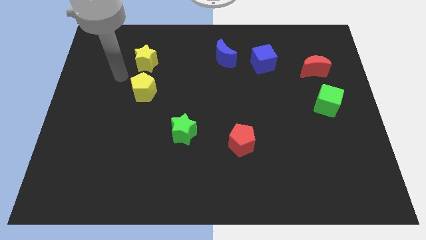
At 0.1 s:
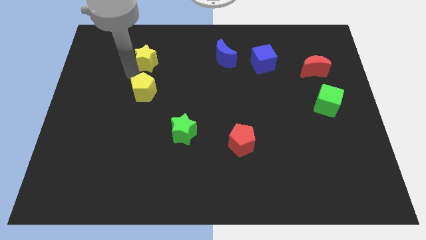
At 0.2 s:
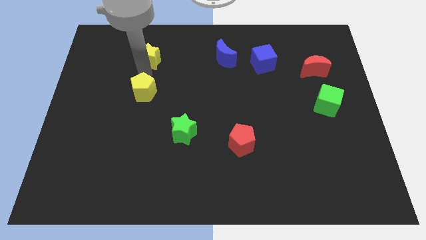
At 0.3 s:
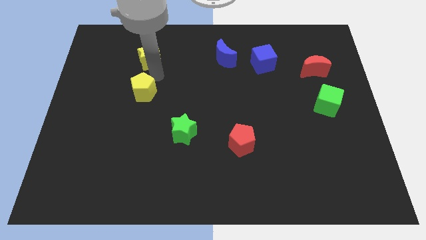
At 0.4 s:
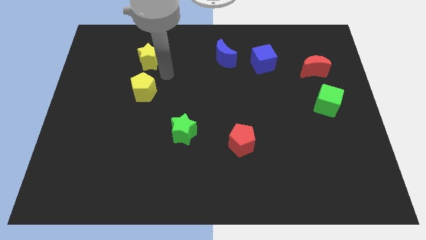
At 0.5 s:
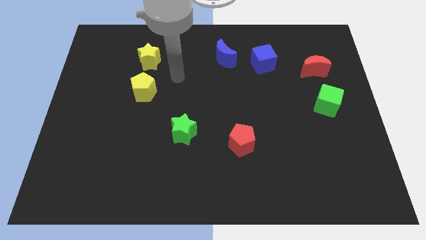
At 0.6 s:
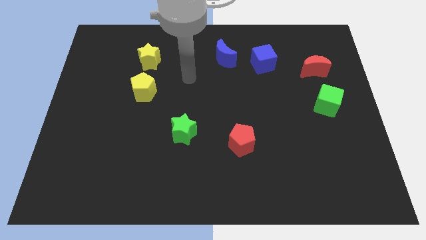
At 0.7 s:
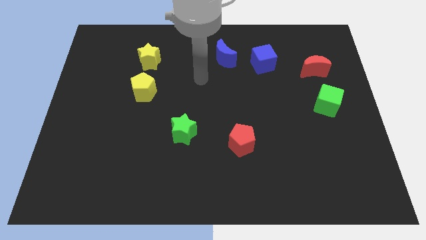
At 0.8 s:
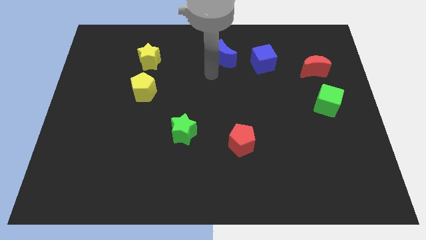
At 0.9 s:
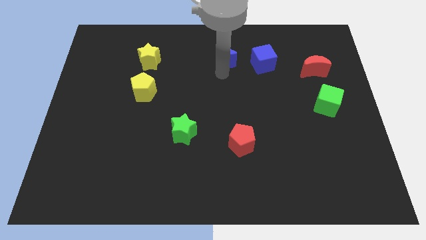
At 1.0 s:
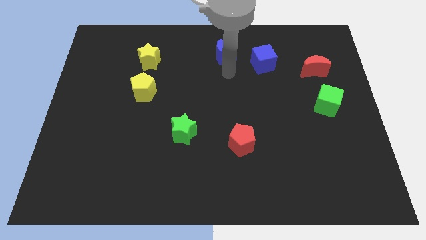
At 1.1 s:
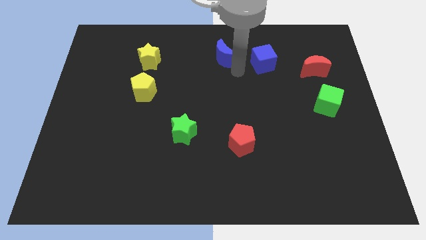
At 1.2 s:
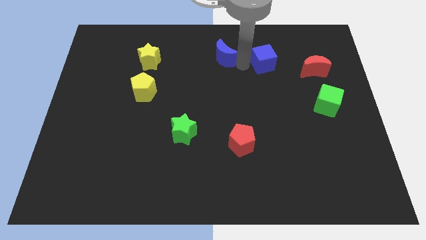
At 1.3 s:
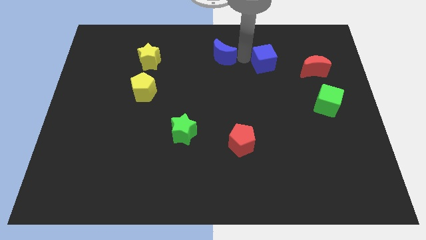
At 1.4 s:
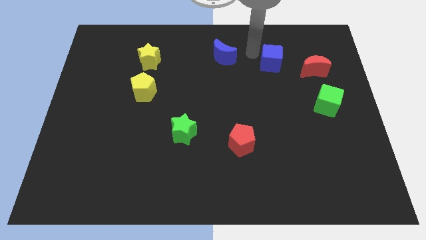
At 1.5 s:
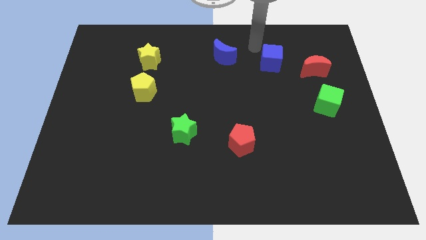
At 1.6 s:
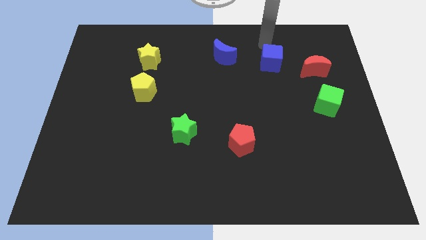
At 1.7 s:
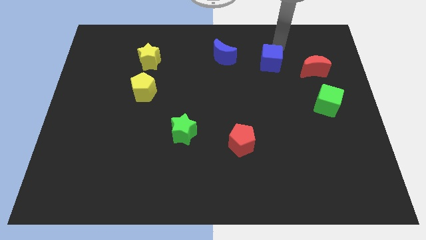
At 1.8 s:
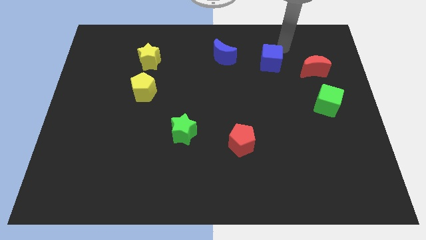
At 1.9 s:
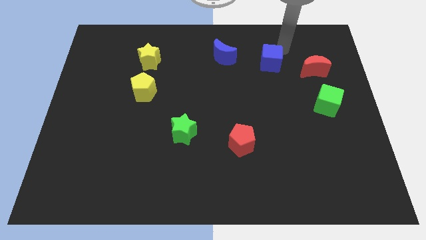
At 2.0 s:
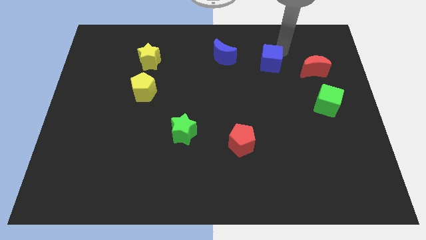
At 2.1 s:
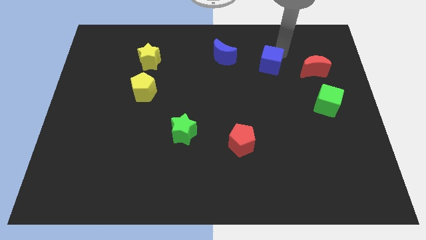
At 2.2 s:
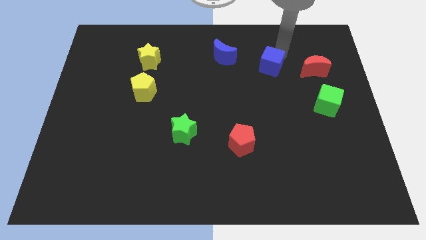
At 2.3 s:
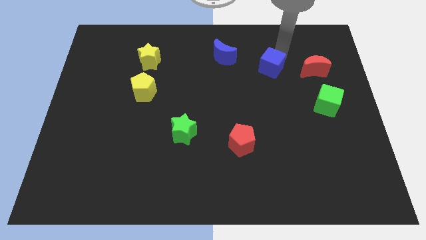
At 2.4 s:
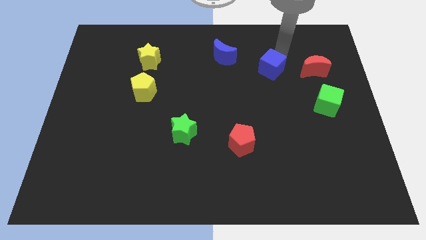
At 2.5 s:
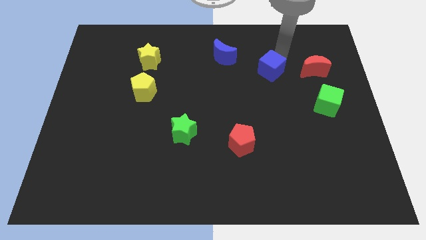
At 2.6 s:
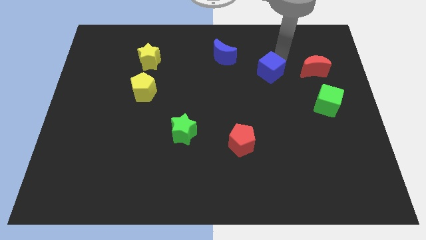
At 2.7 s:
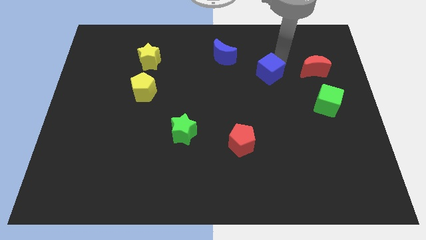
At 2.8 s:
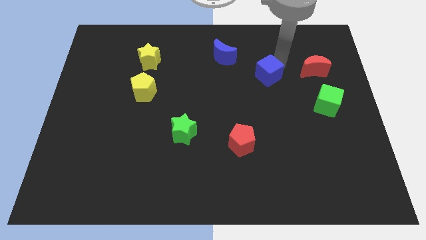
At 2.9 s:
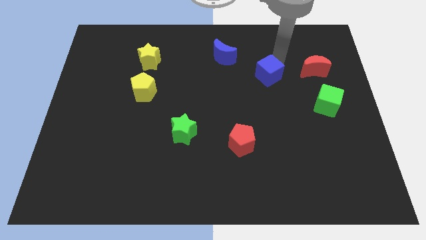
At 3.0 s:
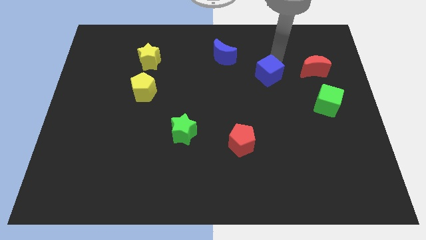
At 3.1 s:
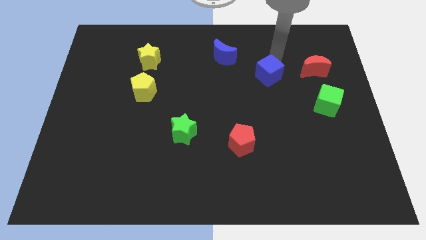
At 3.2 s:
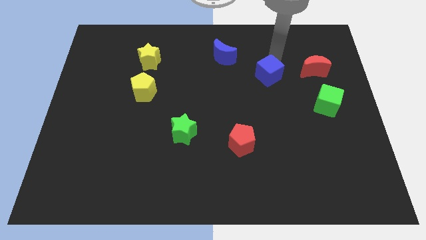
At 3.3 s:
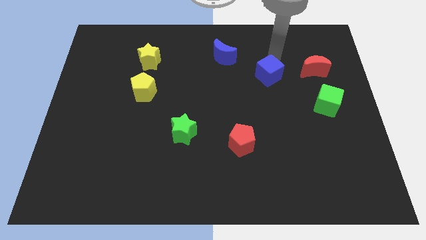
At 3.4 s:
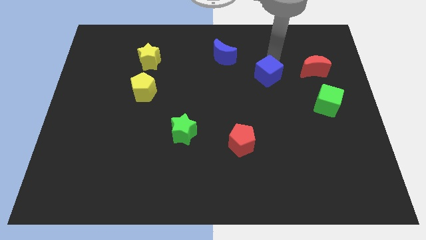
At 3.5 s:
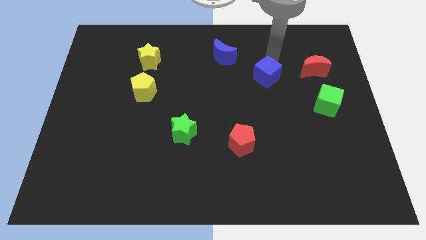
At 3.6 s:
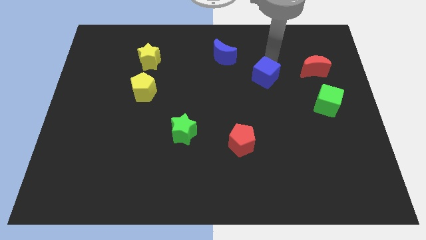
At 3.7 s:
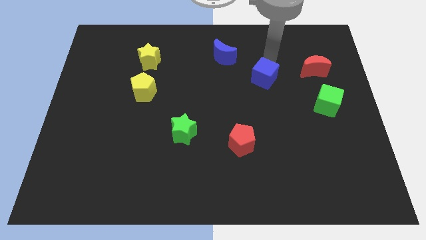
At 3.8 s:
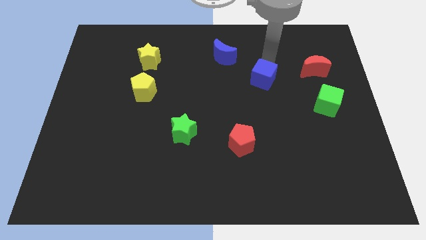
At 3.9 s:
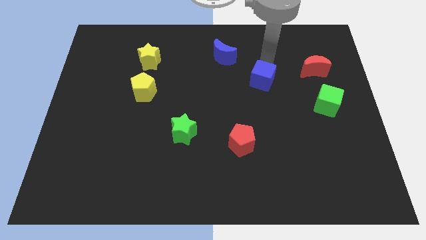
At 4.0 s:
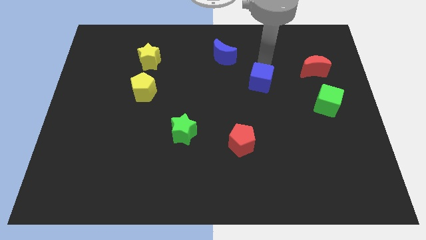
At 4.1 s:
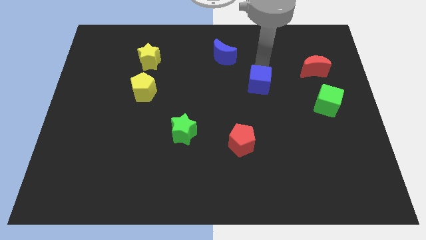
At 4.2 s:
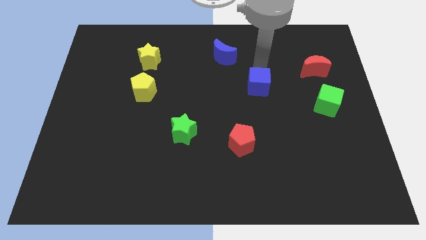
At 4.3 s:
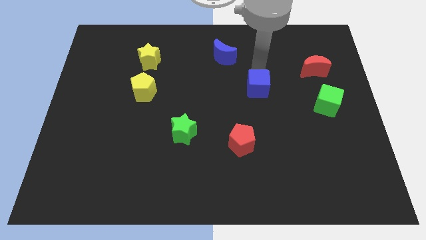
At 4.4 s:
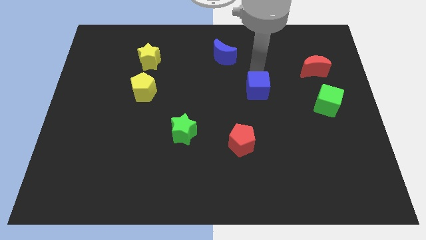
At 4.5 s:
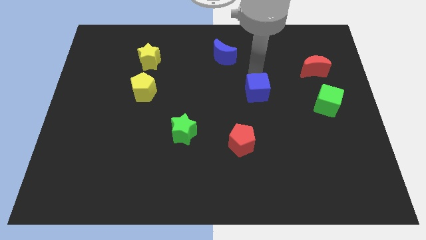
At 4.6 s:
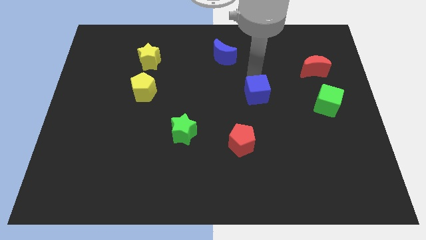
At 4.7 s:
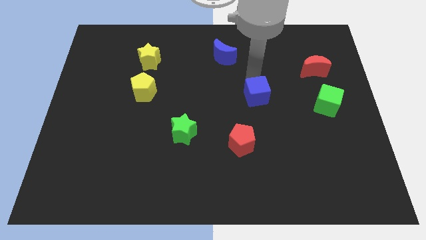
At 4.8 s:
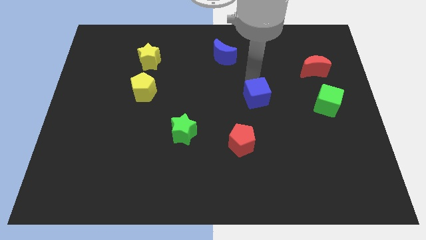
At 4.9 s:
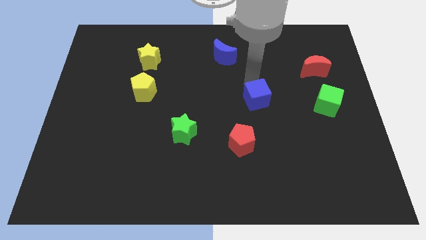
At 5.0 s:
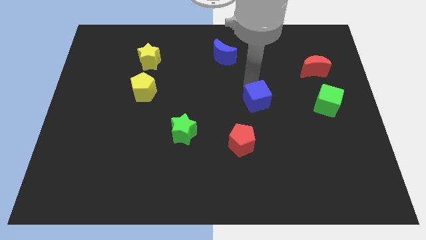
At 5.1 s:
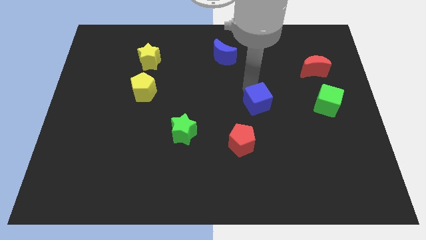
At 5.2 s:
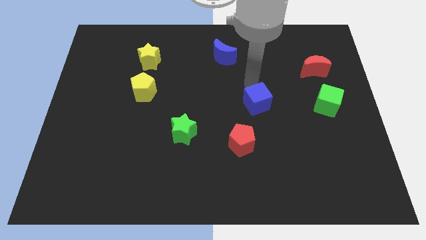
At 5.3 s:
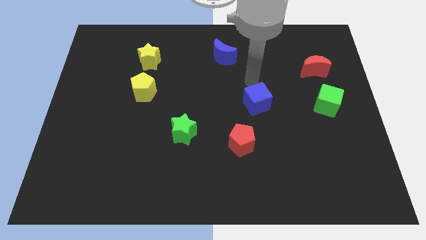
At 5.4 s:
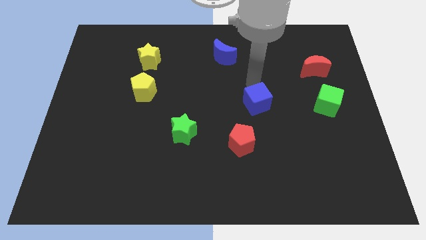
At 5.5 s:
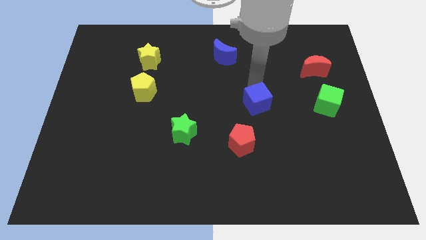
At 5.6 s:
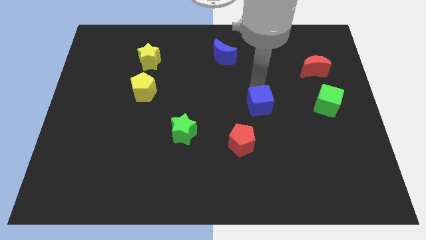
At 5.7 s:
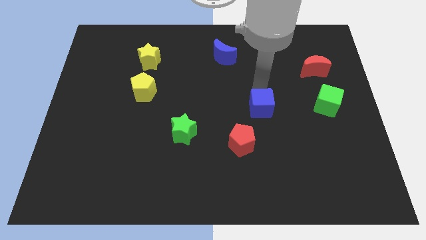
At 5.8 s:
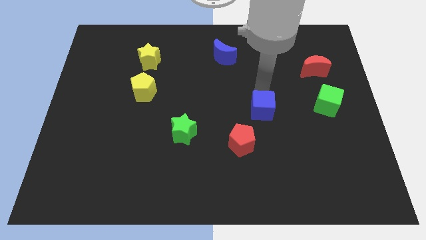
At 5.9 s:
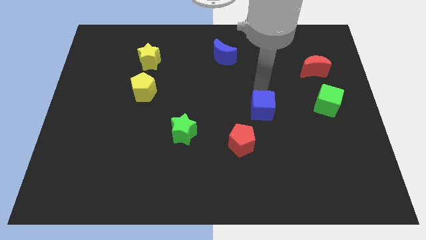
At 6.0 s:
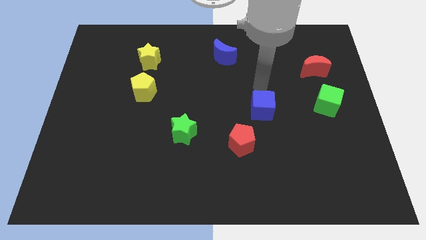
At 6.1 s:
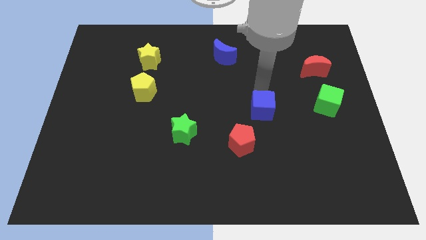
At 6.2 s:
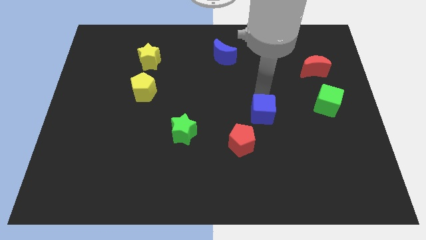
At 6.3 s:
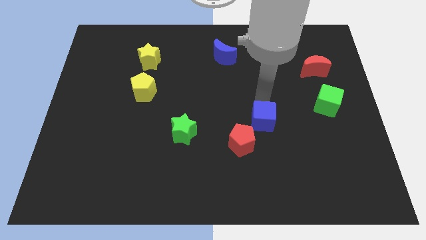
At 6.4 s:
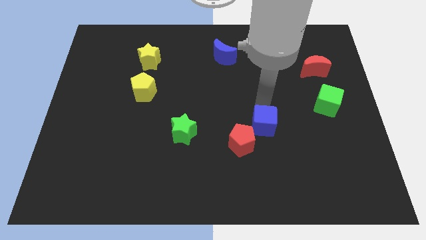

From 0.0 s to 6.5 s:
move the blue cube downwards

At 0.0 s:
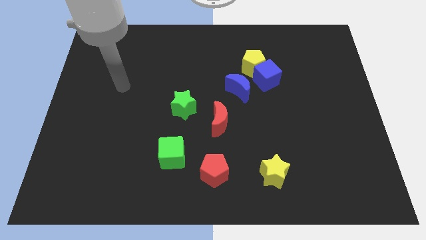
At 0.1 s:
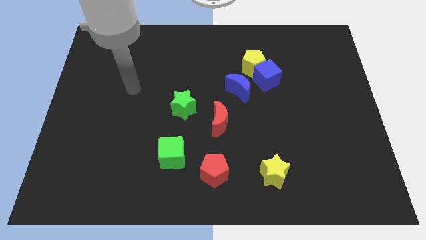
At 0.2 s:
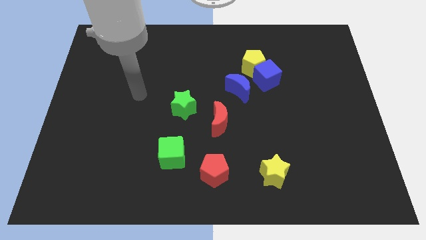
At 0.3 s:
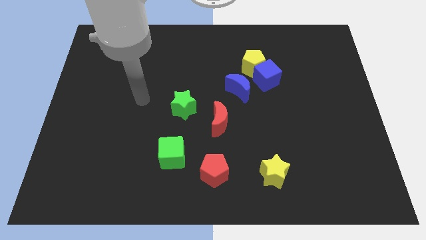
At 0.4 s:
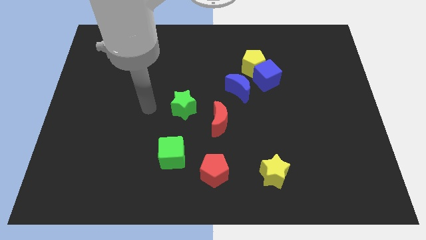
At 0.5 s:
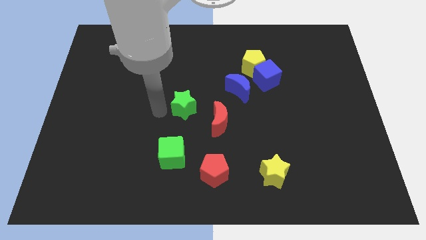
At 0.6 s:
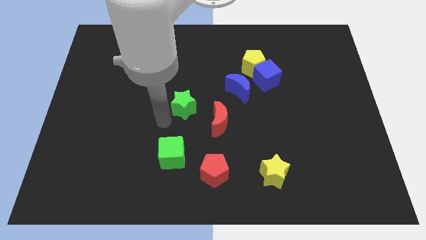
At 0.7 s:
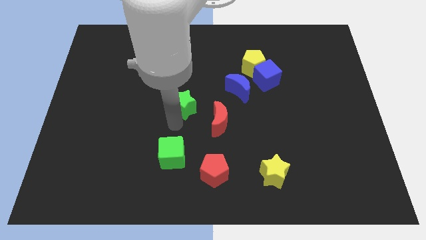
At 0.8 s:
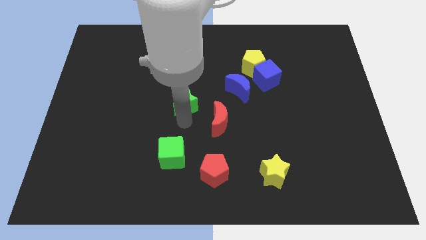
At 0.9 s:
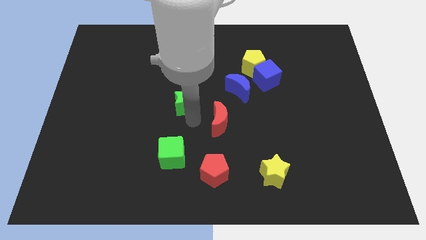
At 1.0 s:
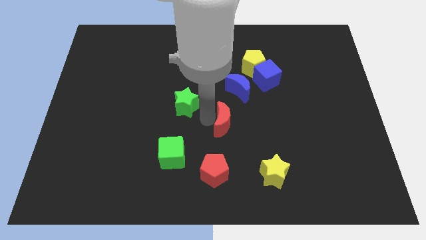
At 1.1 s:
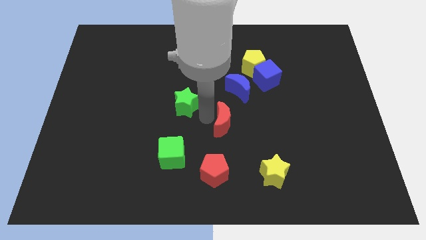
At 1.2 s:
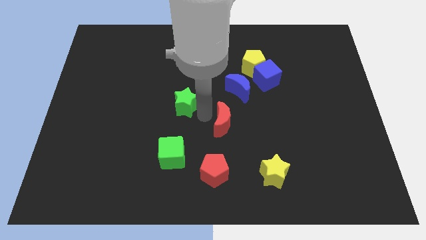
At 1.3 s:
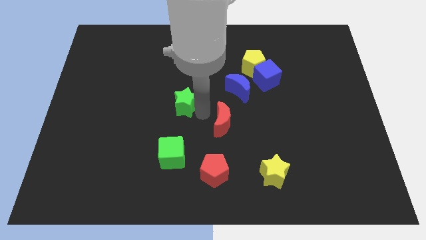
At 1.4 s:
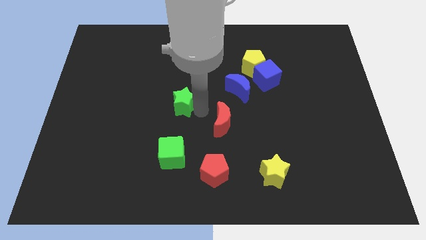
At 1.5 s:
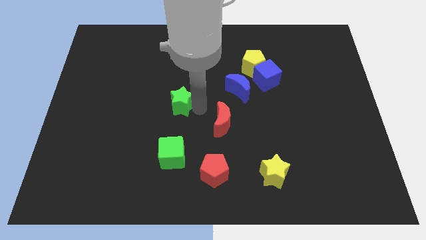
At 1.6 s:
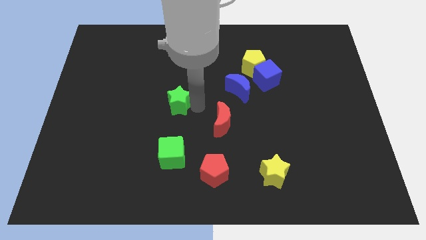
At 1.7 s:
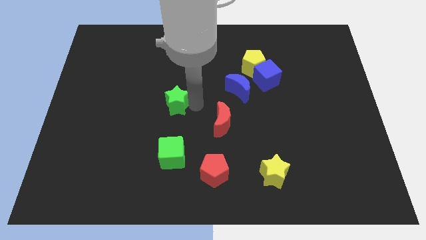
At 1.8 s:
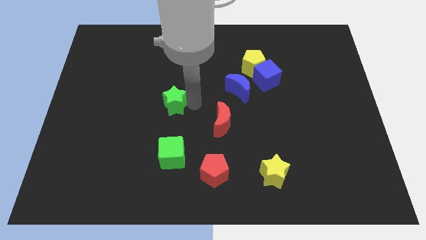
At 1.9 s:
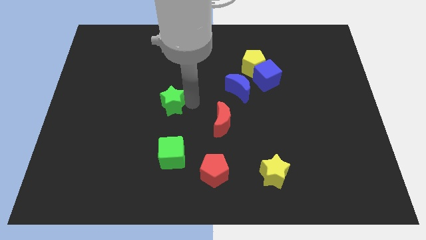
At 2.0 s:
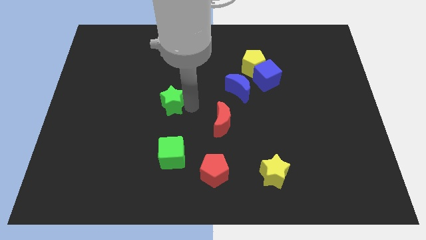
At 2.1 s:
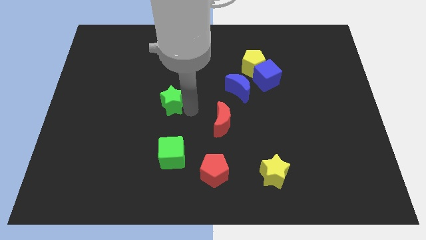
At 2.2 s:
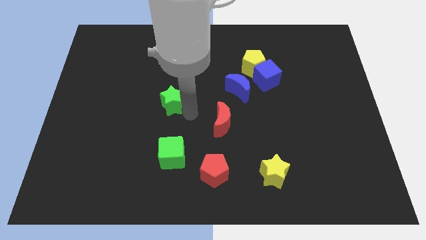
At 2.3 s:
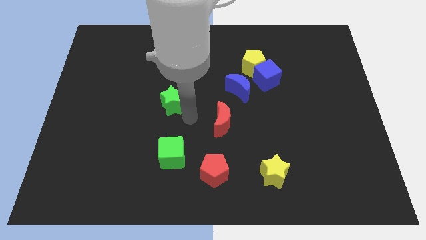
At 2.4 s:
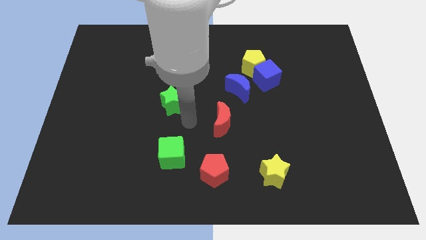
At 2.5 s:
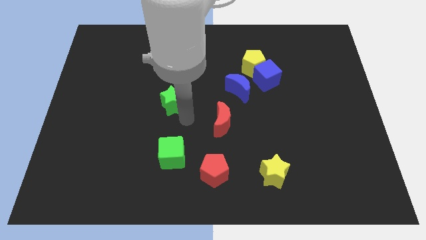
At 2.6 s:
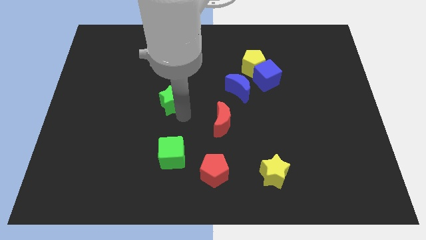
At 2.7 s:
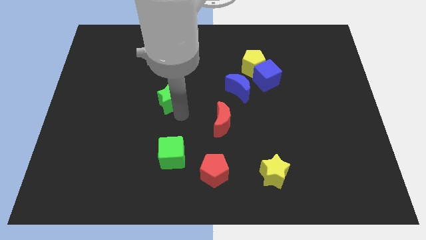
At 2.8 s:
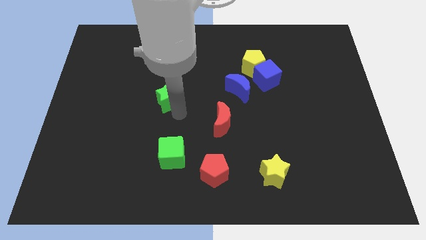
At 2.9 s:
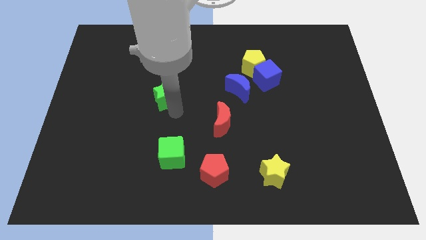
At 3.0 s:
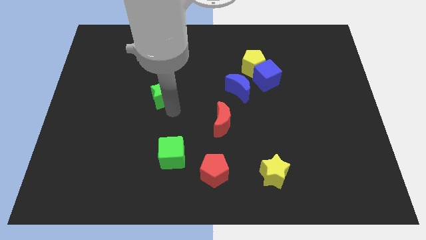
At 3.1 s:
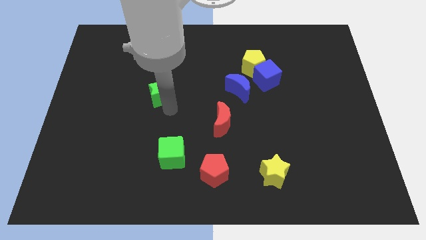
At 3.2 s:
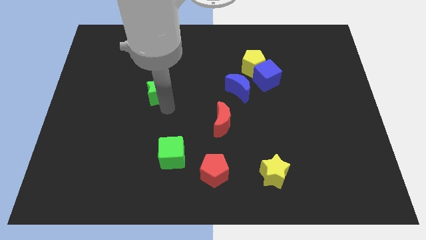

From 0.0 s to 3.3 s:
slightly move the green star up and left diagonally
